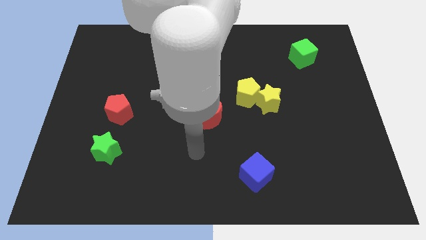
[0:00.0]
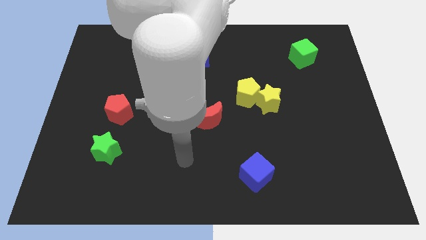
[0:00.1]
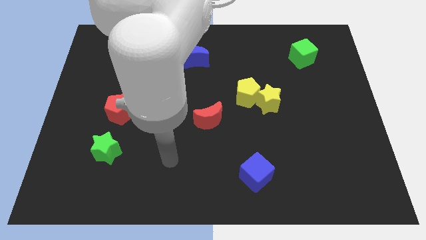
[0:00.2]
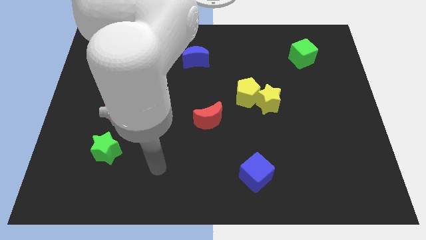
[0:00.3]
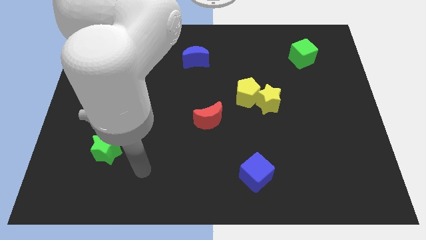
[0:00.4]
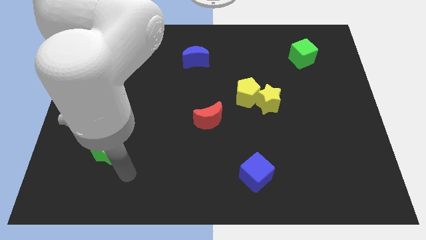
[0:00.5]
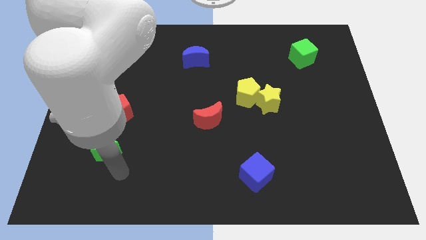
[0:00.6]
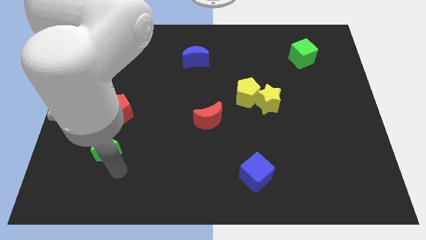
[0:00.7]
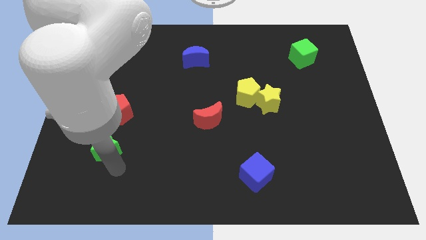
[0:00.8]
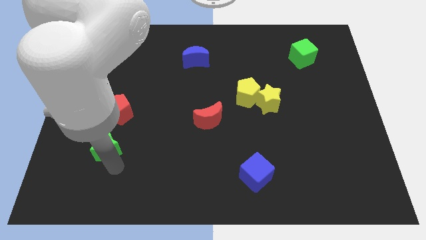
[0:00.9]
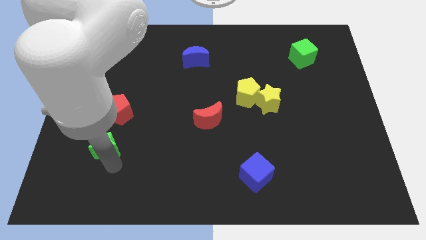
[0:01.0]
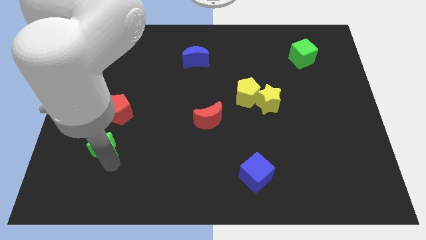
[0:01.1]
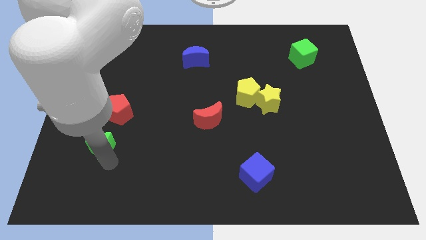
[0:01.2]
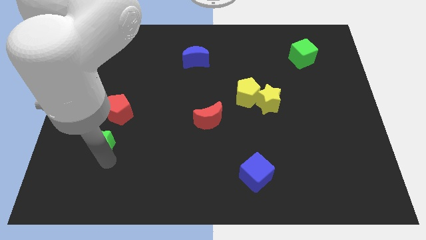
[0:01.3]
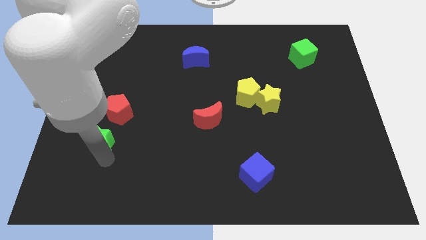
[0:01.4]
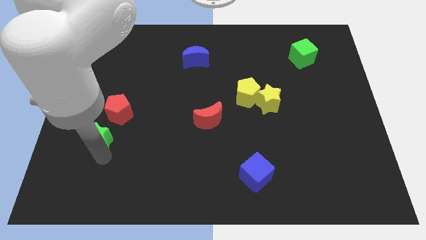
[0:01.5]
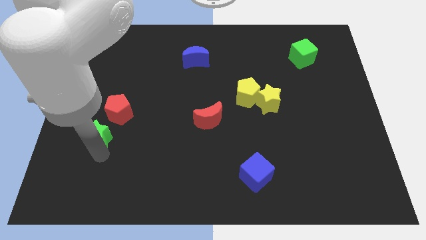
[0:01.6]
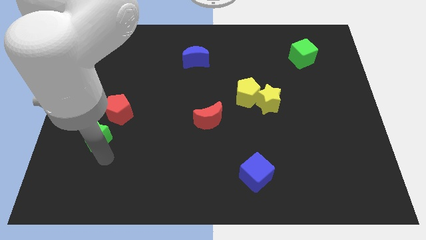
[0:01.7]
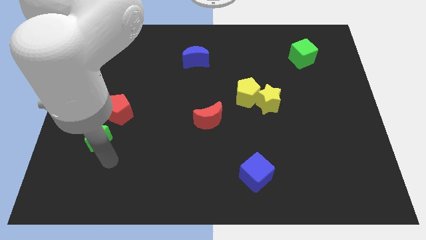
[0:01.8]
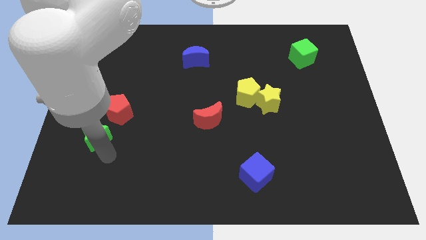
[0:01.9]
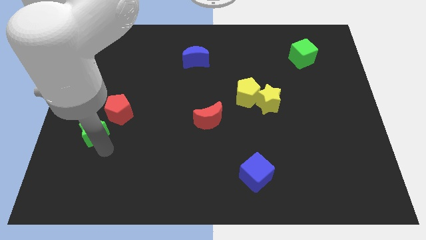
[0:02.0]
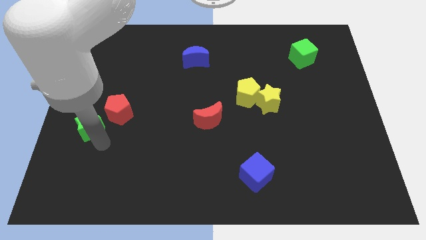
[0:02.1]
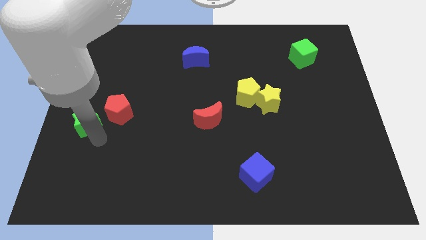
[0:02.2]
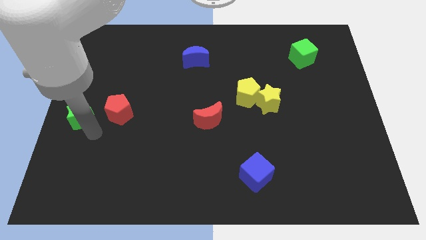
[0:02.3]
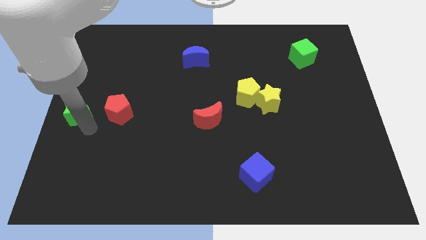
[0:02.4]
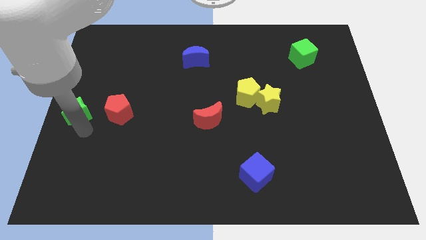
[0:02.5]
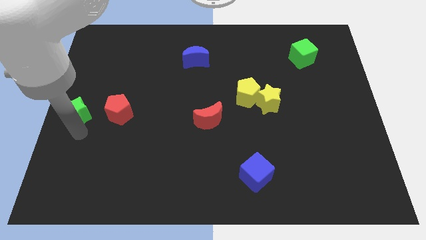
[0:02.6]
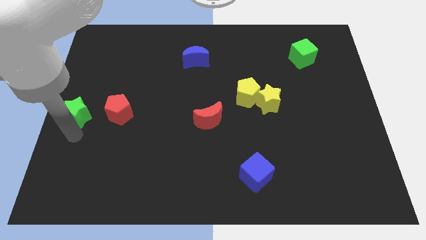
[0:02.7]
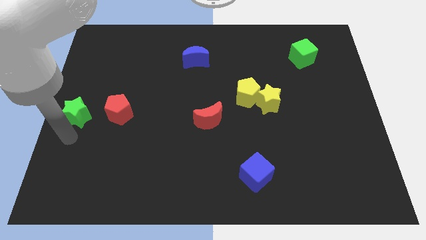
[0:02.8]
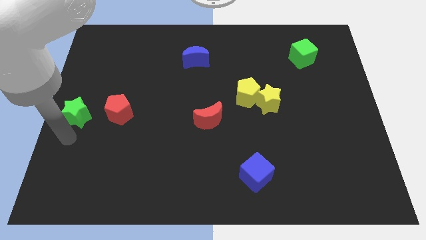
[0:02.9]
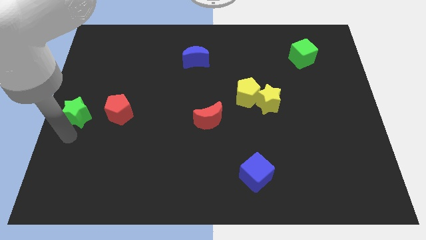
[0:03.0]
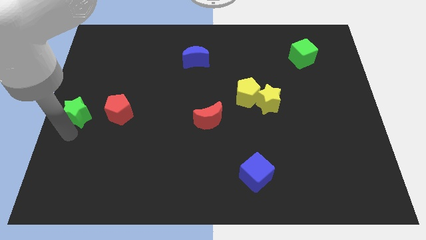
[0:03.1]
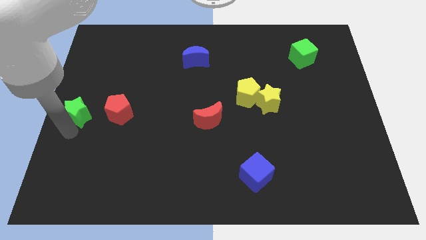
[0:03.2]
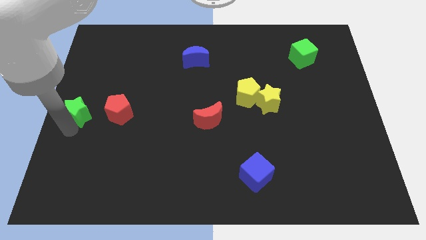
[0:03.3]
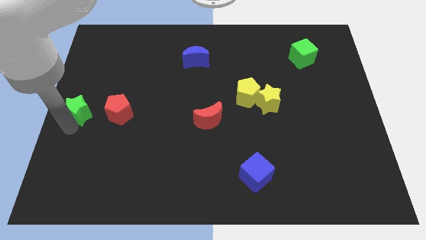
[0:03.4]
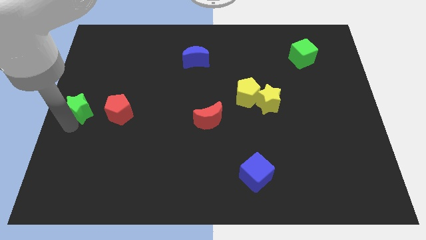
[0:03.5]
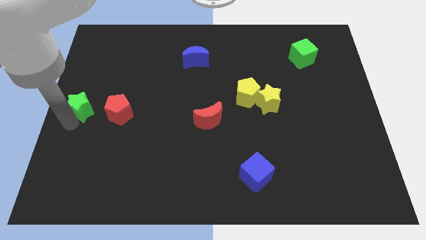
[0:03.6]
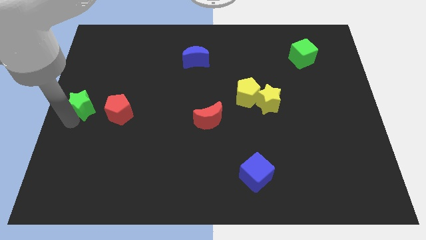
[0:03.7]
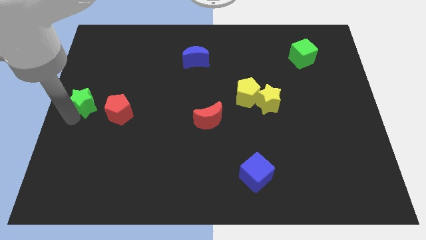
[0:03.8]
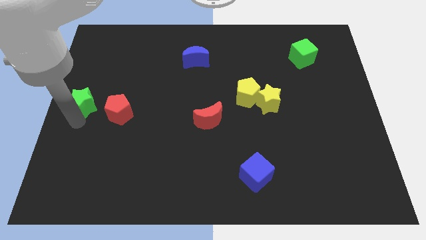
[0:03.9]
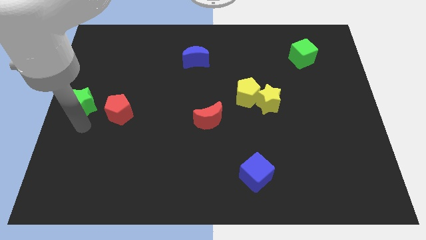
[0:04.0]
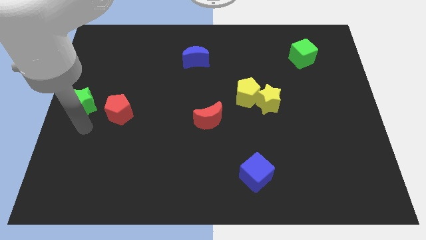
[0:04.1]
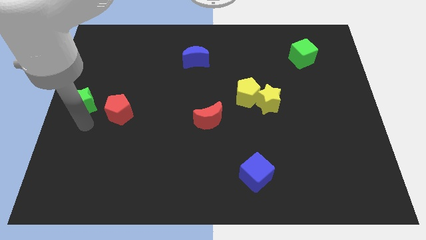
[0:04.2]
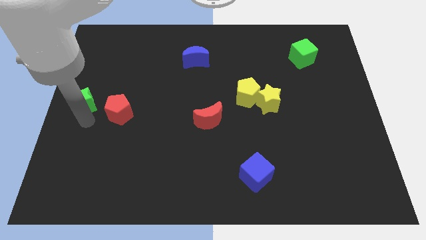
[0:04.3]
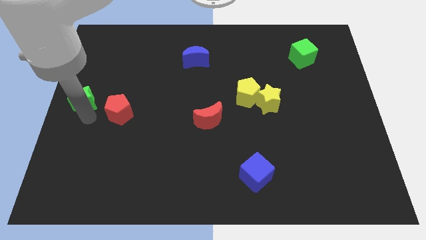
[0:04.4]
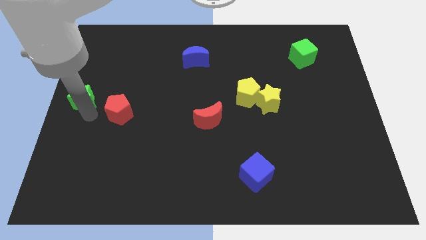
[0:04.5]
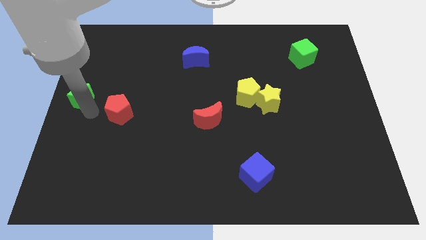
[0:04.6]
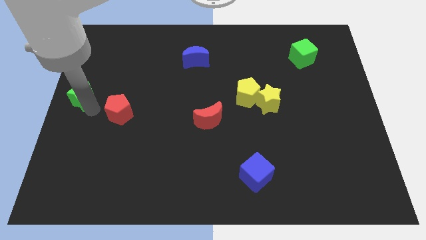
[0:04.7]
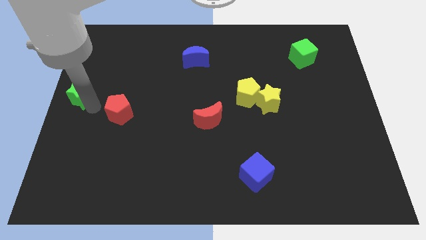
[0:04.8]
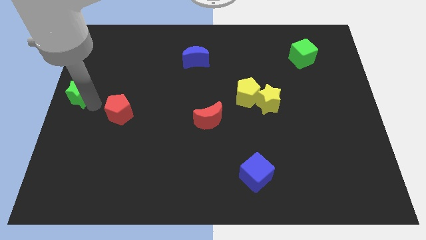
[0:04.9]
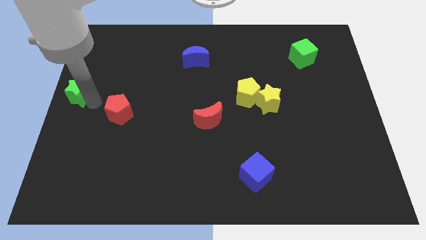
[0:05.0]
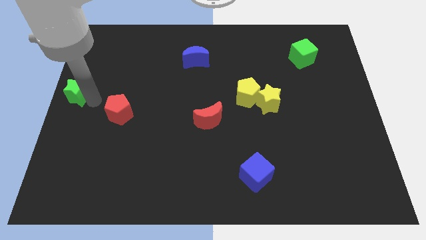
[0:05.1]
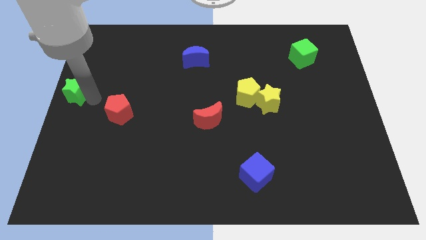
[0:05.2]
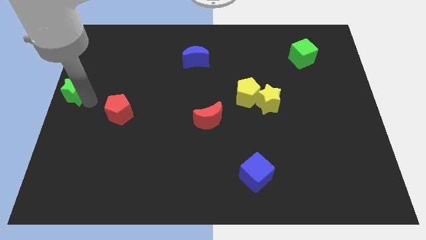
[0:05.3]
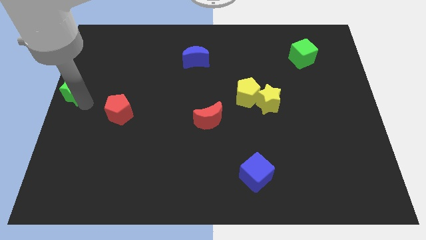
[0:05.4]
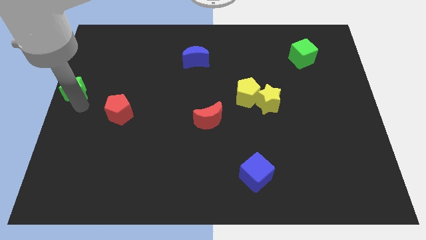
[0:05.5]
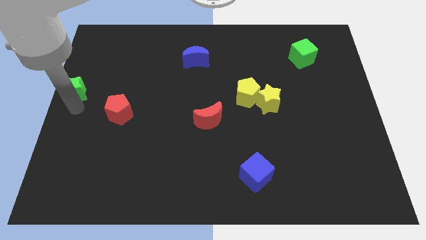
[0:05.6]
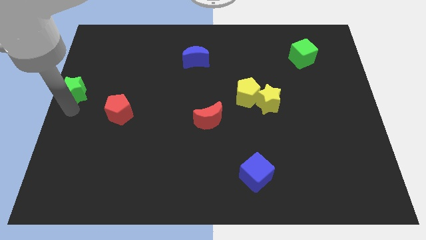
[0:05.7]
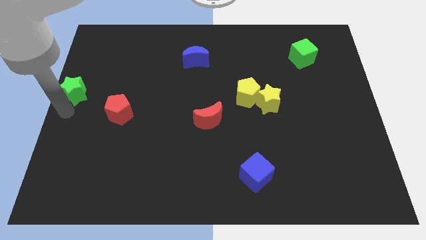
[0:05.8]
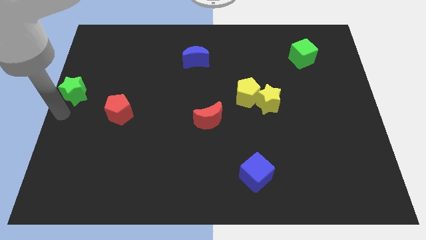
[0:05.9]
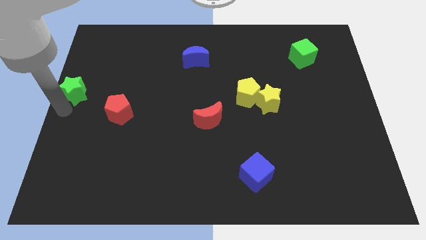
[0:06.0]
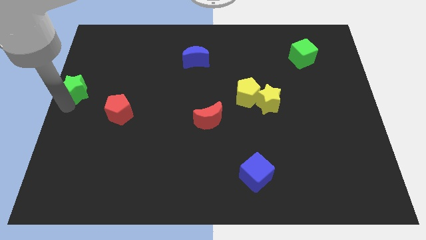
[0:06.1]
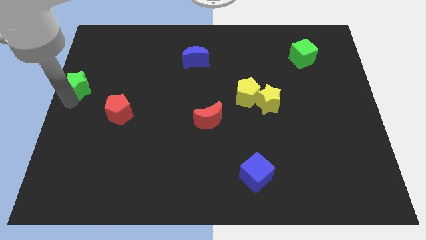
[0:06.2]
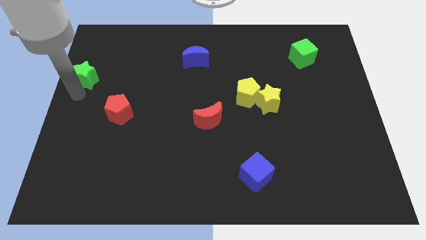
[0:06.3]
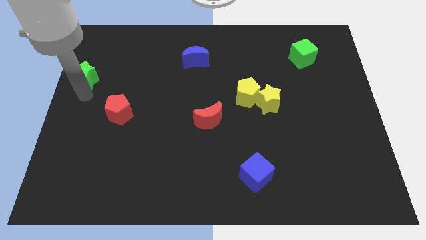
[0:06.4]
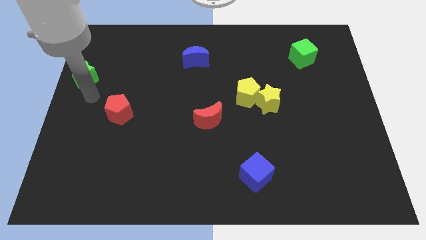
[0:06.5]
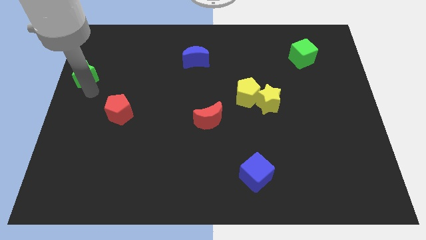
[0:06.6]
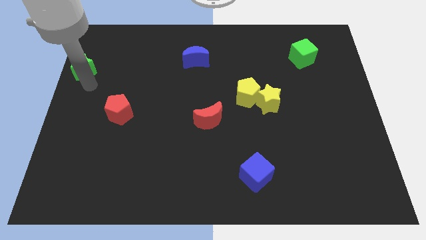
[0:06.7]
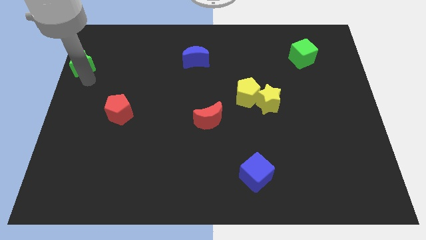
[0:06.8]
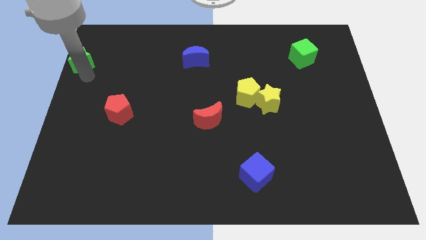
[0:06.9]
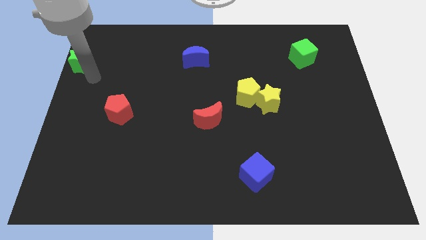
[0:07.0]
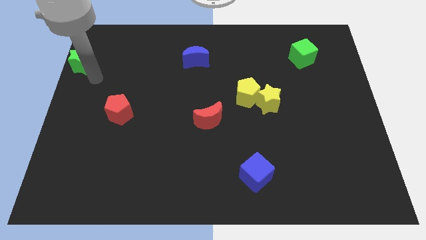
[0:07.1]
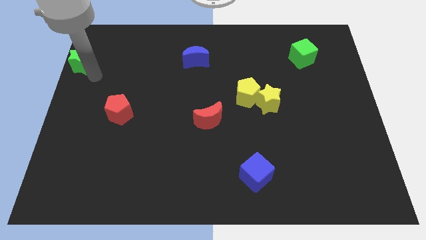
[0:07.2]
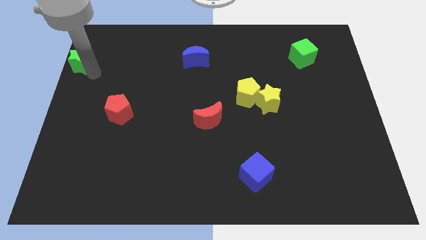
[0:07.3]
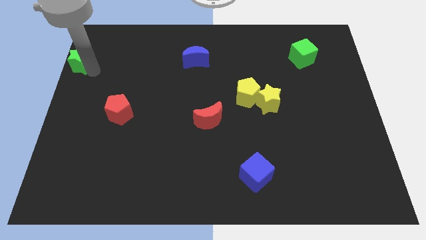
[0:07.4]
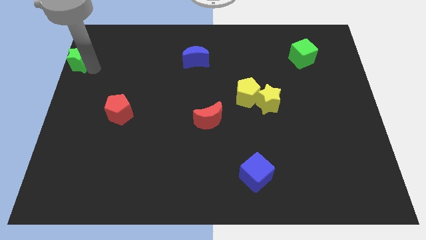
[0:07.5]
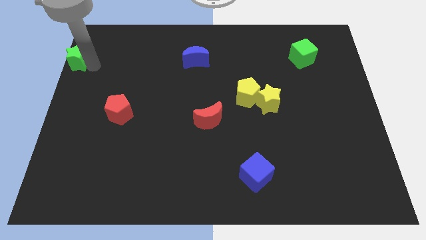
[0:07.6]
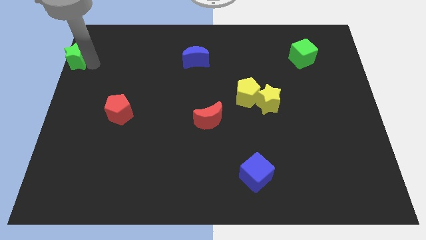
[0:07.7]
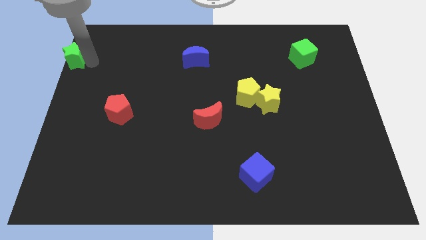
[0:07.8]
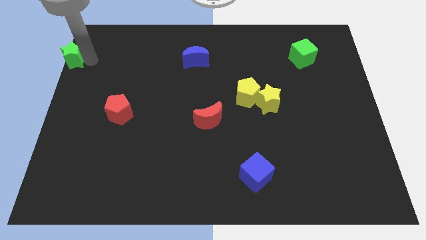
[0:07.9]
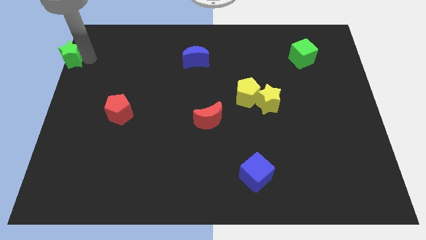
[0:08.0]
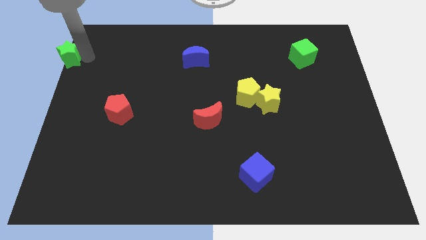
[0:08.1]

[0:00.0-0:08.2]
put the green star to the top left
